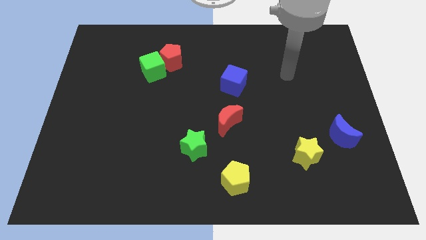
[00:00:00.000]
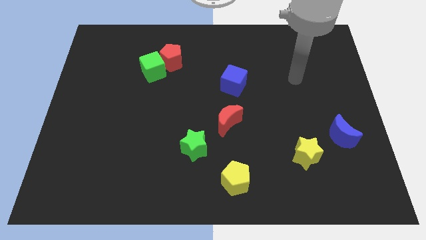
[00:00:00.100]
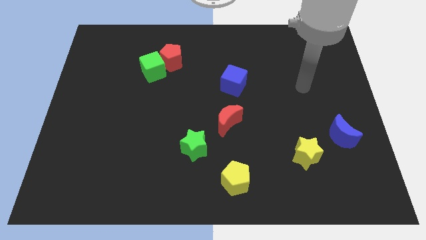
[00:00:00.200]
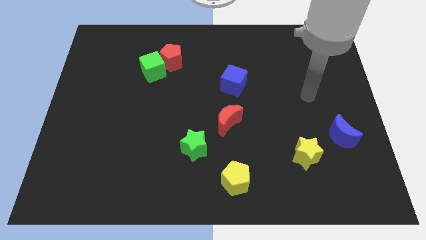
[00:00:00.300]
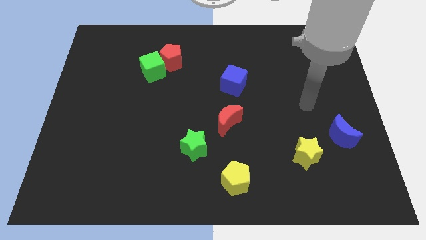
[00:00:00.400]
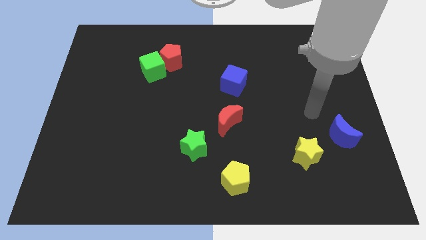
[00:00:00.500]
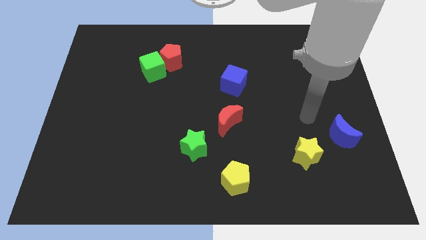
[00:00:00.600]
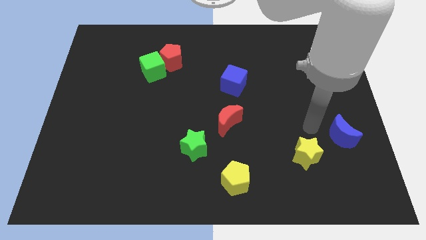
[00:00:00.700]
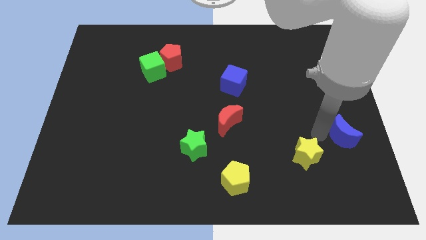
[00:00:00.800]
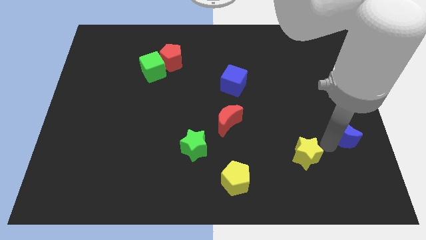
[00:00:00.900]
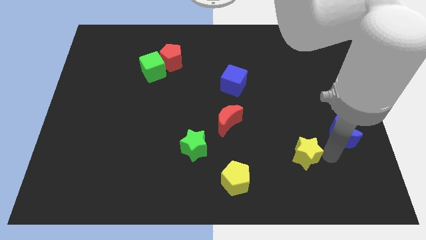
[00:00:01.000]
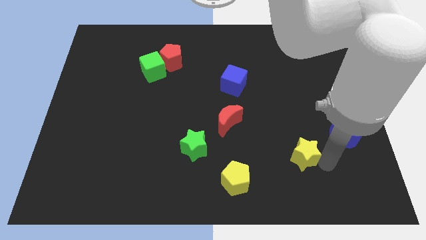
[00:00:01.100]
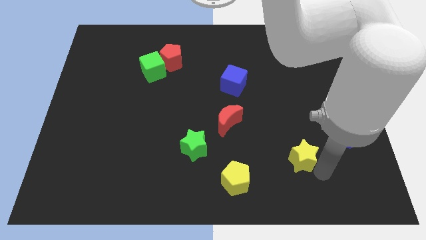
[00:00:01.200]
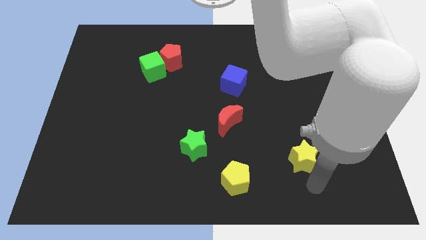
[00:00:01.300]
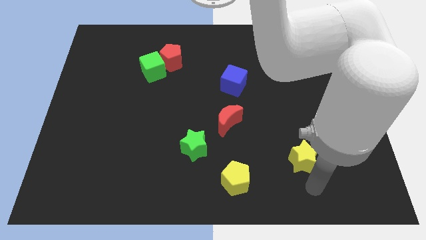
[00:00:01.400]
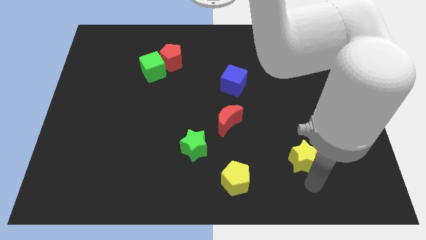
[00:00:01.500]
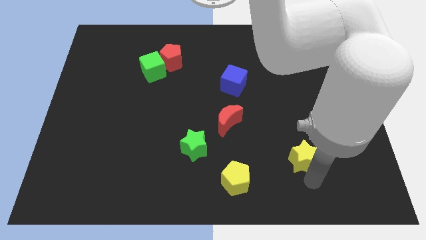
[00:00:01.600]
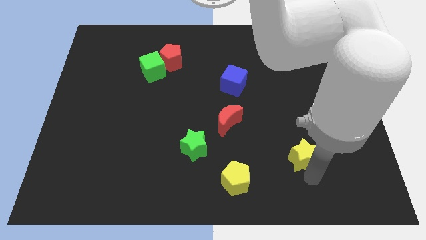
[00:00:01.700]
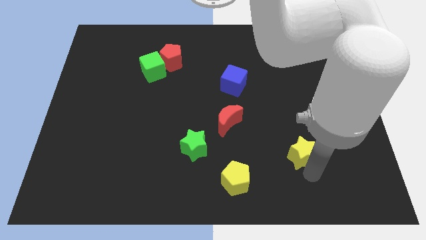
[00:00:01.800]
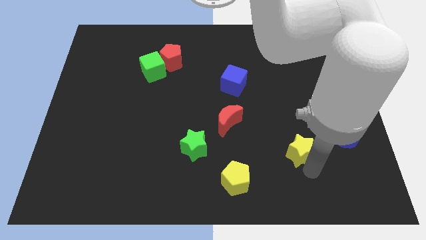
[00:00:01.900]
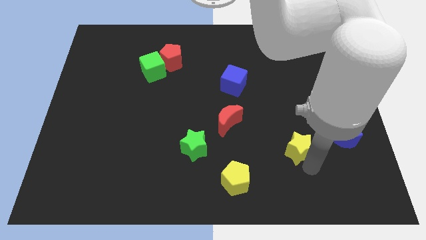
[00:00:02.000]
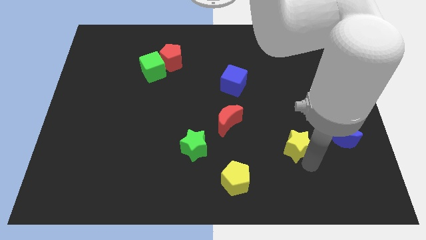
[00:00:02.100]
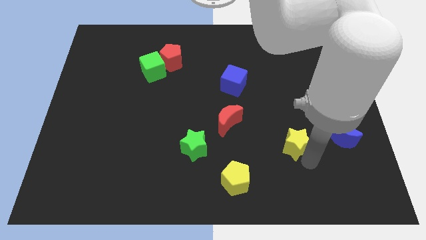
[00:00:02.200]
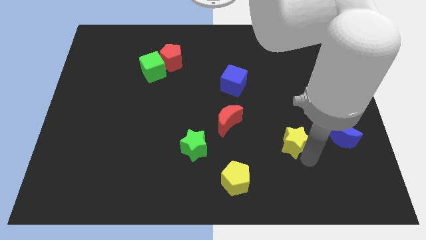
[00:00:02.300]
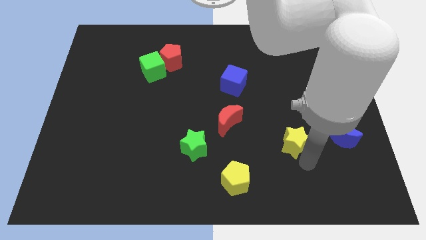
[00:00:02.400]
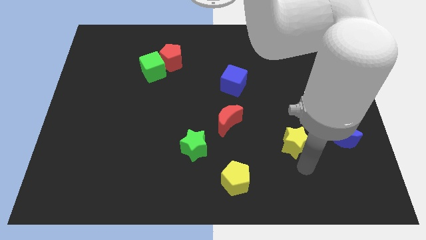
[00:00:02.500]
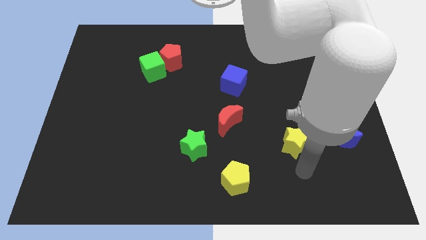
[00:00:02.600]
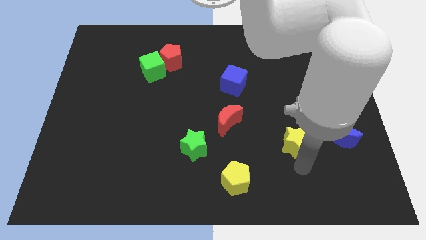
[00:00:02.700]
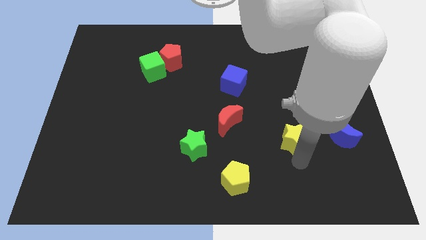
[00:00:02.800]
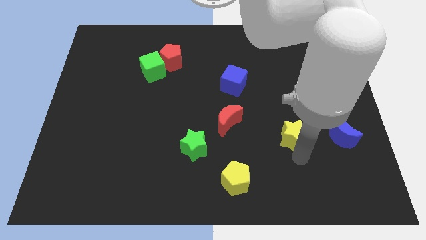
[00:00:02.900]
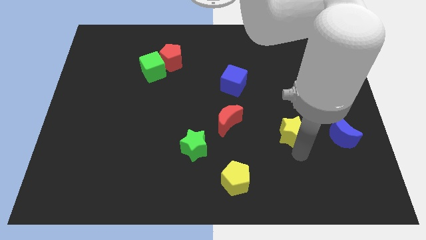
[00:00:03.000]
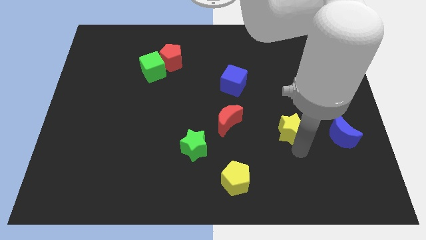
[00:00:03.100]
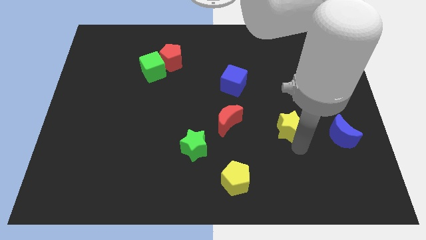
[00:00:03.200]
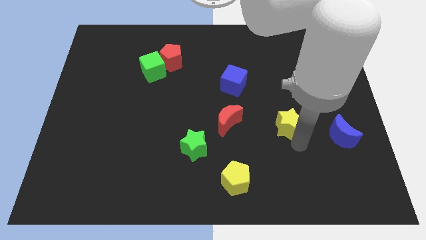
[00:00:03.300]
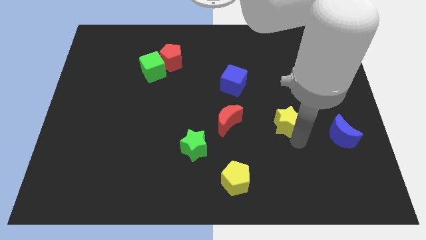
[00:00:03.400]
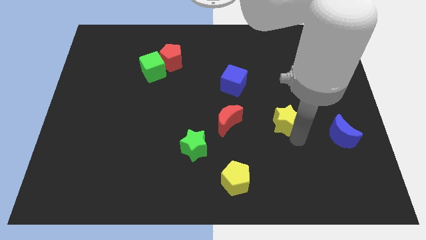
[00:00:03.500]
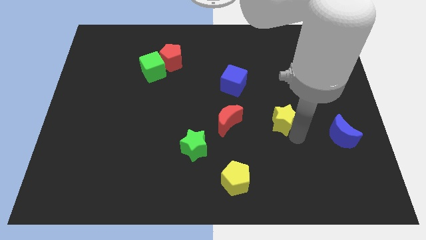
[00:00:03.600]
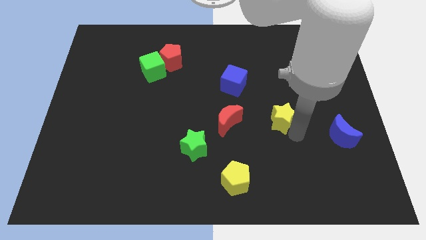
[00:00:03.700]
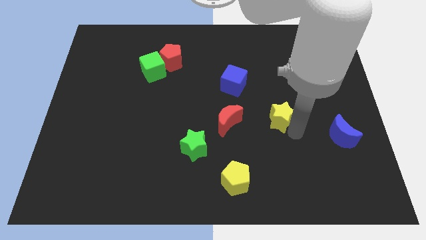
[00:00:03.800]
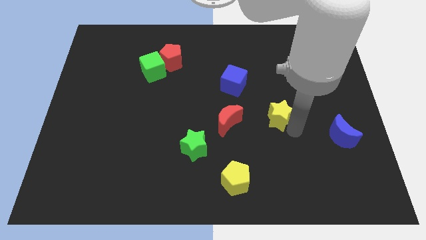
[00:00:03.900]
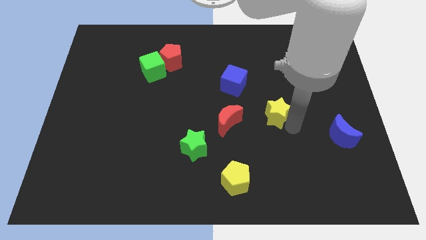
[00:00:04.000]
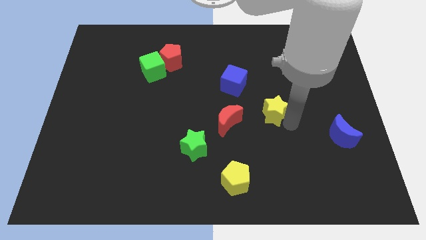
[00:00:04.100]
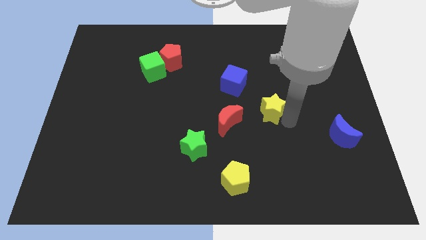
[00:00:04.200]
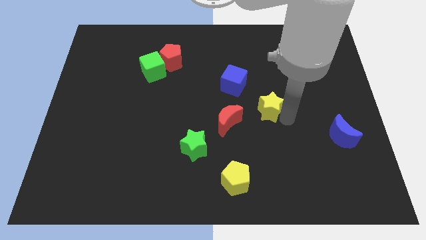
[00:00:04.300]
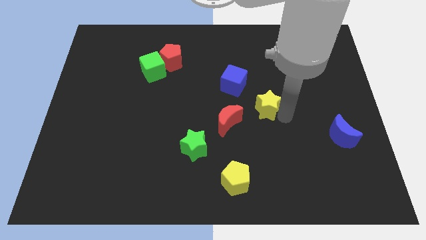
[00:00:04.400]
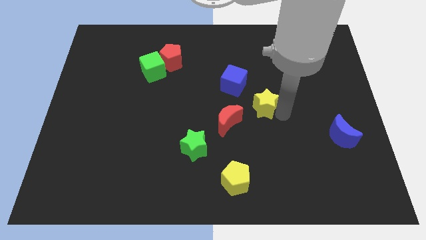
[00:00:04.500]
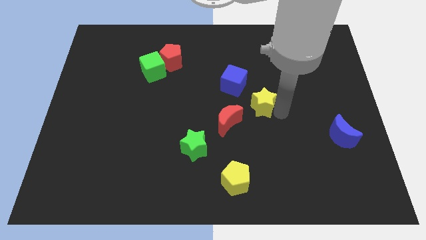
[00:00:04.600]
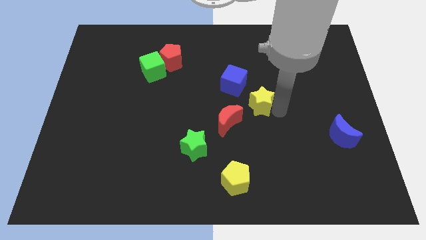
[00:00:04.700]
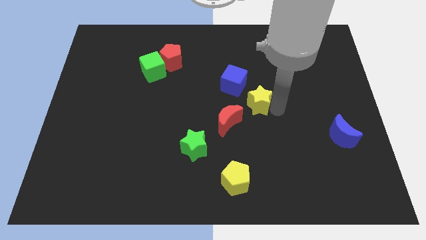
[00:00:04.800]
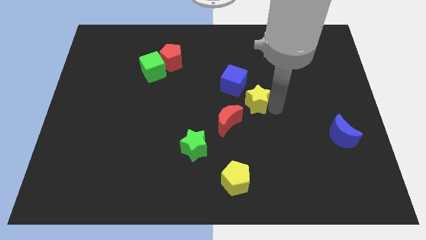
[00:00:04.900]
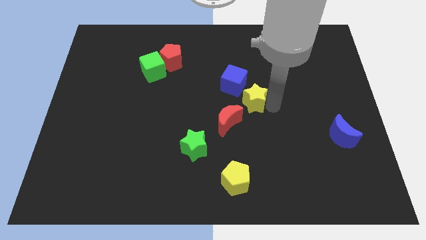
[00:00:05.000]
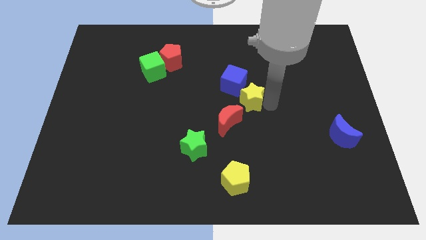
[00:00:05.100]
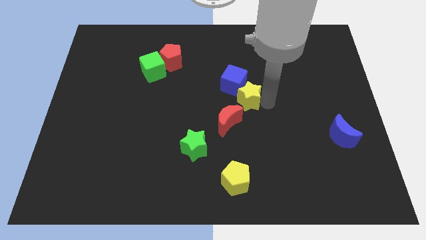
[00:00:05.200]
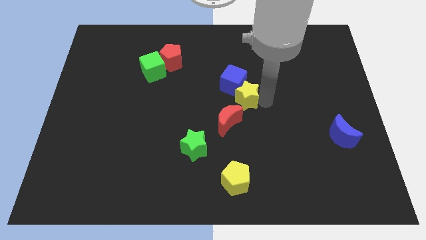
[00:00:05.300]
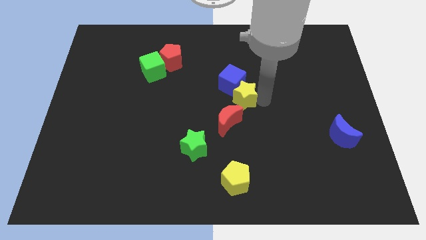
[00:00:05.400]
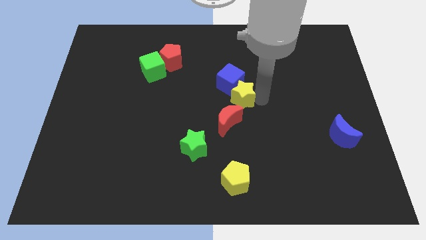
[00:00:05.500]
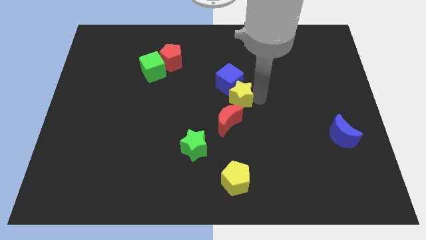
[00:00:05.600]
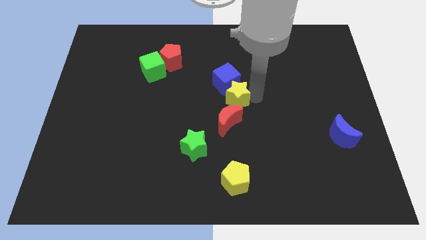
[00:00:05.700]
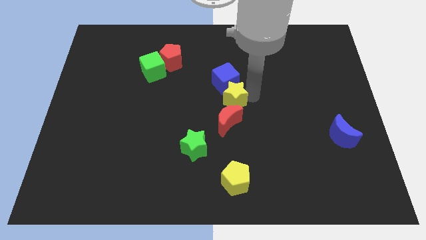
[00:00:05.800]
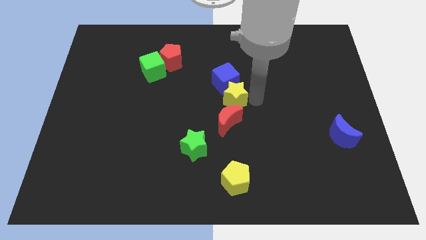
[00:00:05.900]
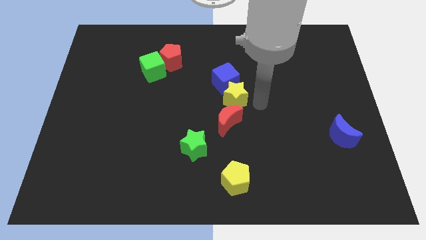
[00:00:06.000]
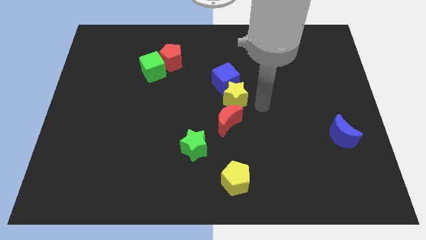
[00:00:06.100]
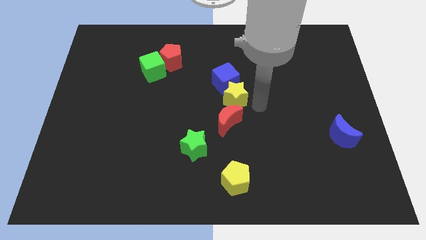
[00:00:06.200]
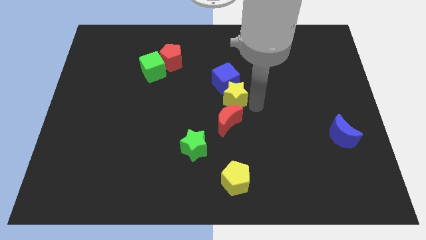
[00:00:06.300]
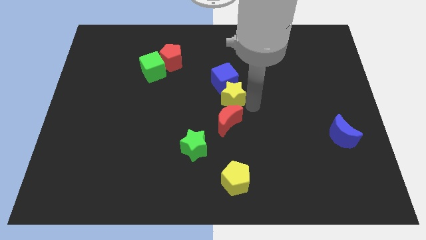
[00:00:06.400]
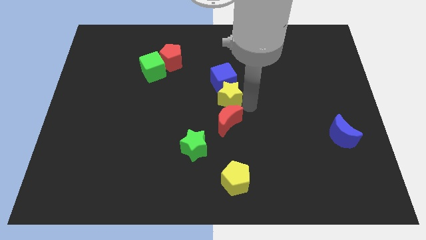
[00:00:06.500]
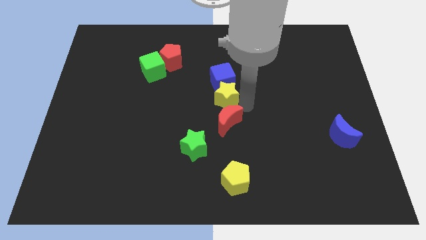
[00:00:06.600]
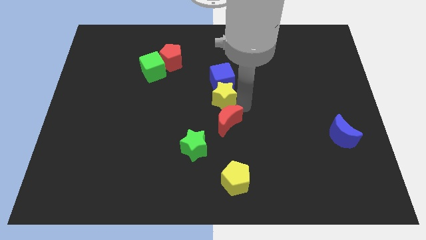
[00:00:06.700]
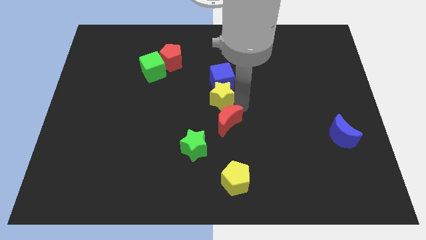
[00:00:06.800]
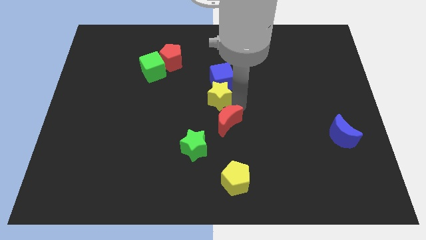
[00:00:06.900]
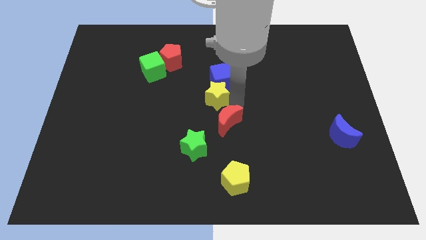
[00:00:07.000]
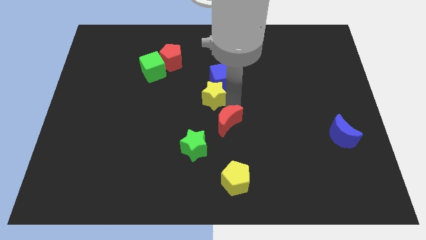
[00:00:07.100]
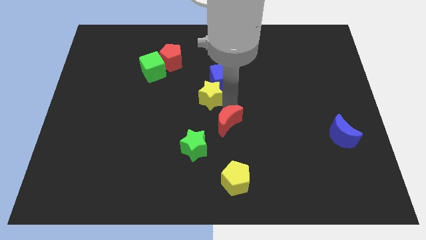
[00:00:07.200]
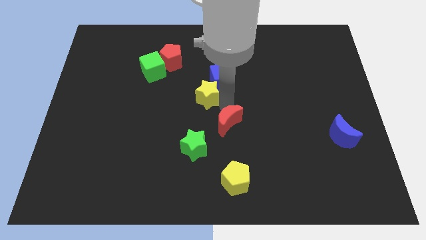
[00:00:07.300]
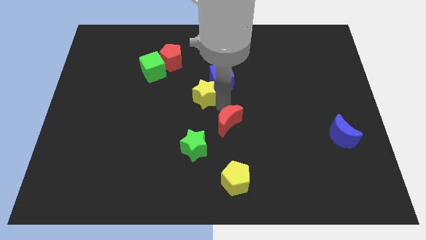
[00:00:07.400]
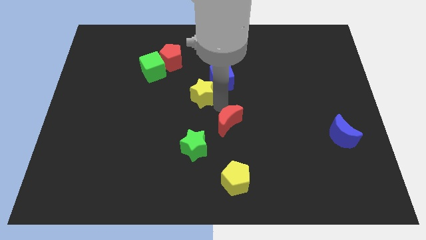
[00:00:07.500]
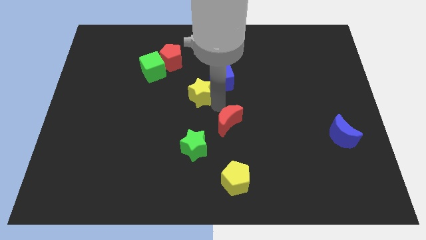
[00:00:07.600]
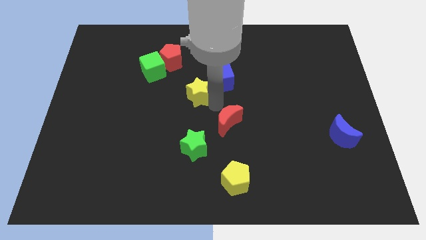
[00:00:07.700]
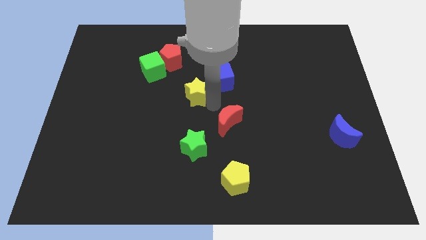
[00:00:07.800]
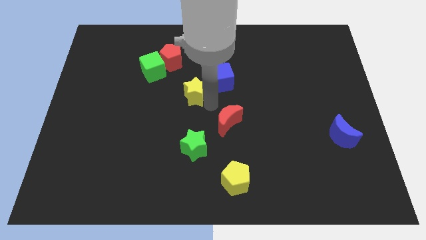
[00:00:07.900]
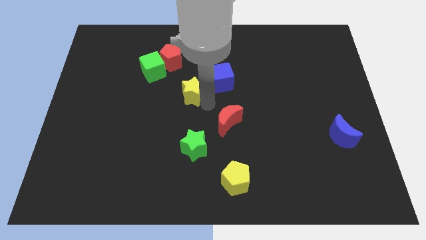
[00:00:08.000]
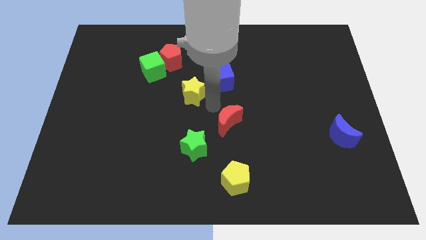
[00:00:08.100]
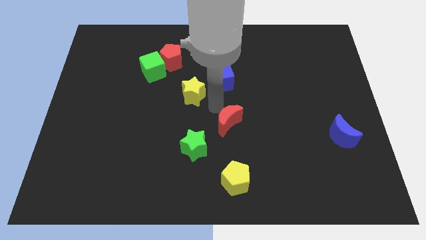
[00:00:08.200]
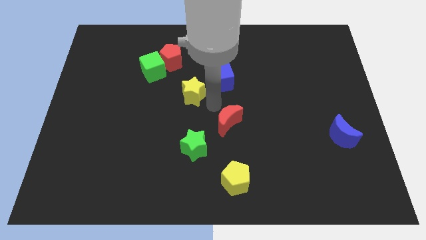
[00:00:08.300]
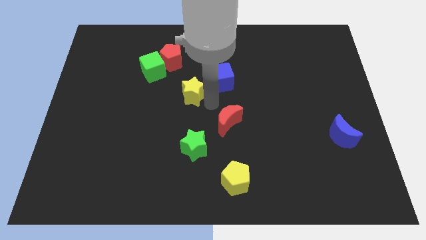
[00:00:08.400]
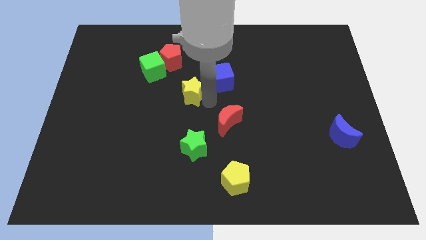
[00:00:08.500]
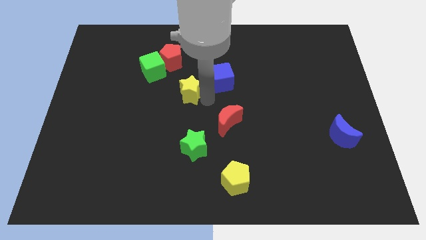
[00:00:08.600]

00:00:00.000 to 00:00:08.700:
put the yellow star diagonally down and to the right of the green cube
